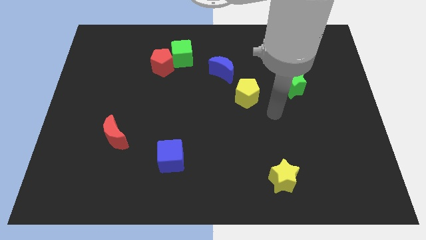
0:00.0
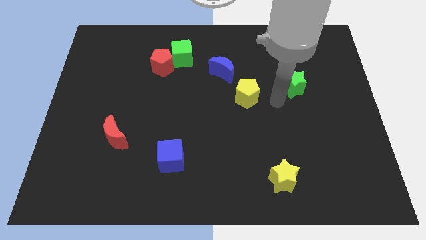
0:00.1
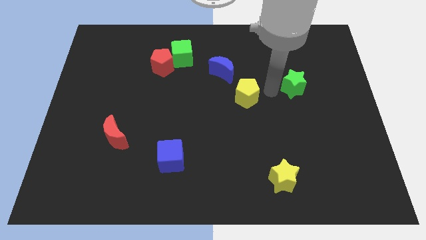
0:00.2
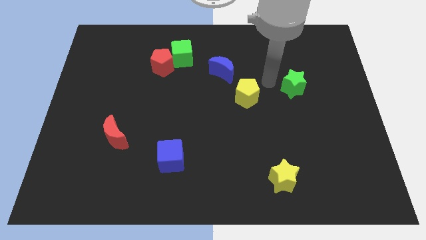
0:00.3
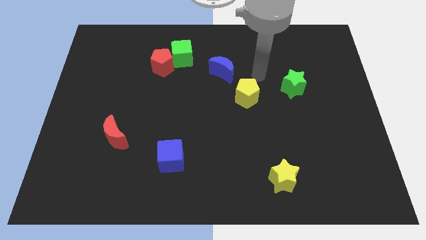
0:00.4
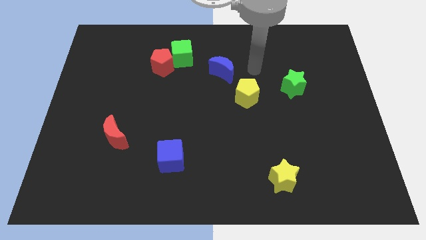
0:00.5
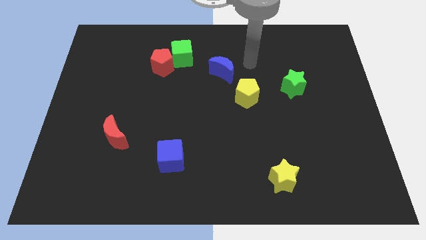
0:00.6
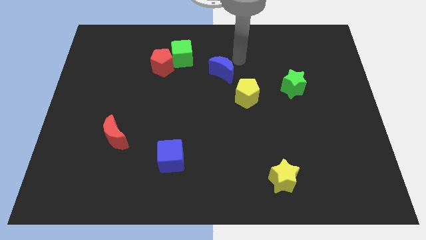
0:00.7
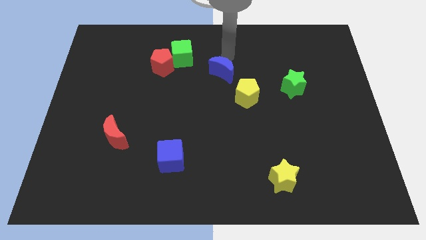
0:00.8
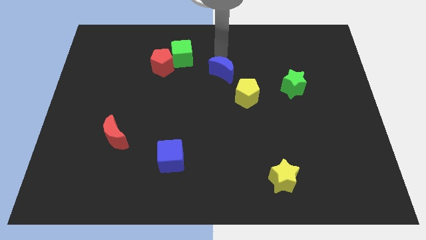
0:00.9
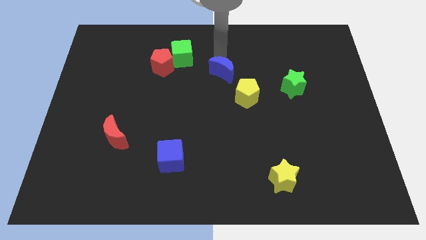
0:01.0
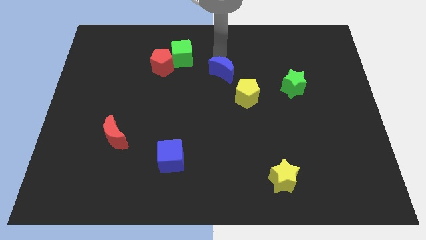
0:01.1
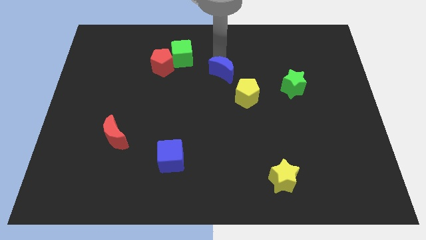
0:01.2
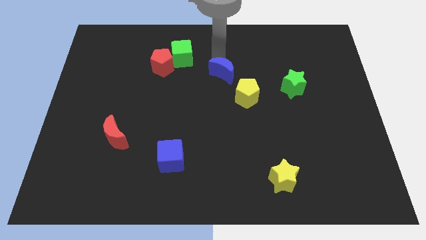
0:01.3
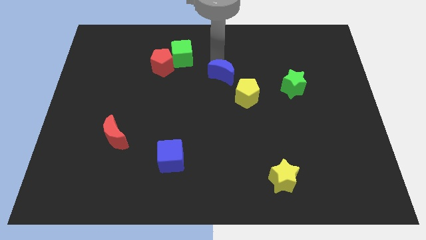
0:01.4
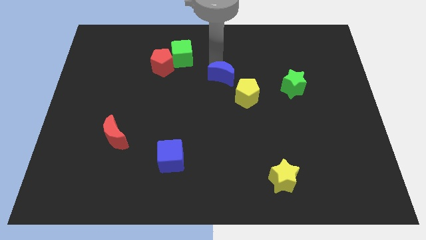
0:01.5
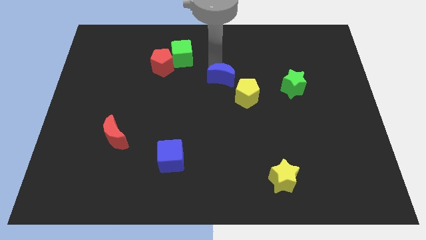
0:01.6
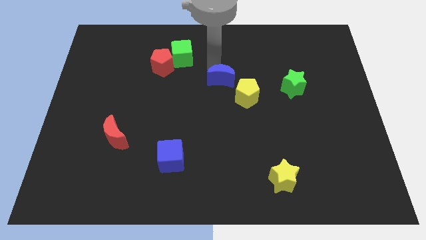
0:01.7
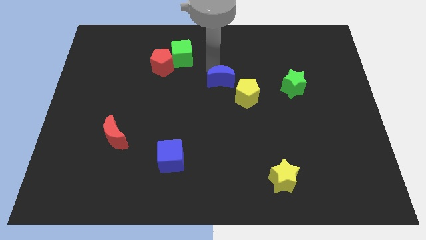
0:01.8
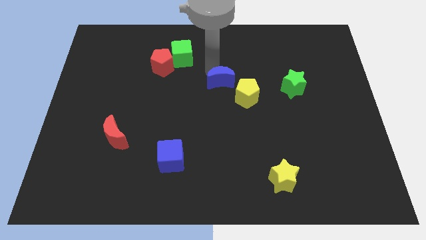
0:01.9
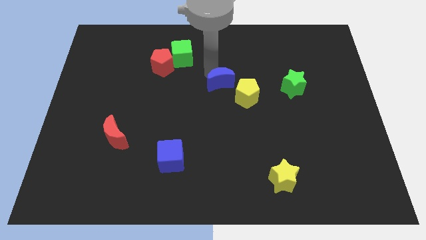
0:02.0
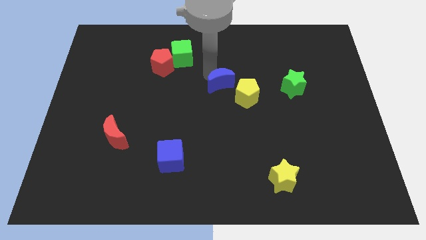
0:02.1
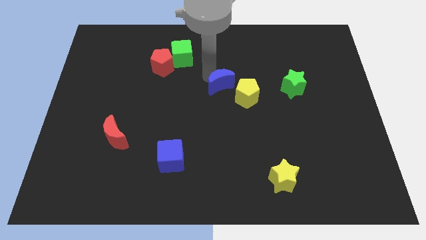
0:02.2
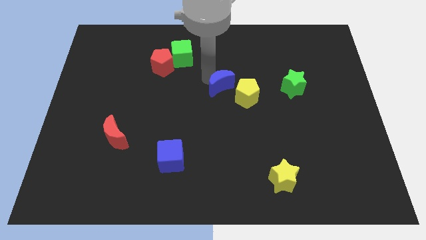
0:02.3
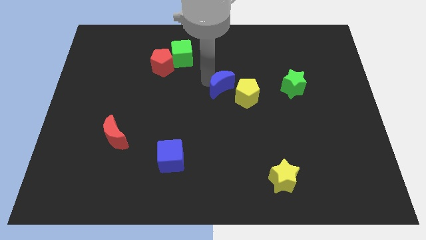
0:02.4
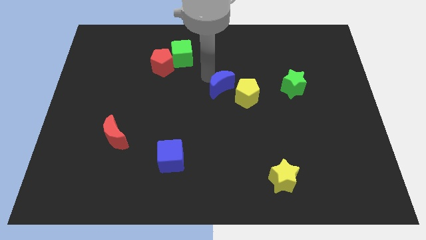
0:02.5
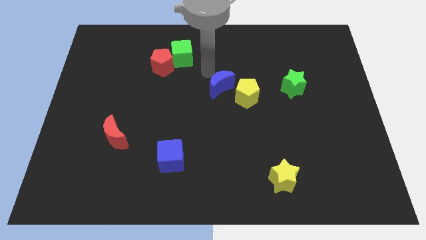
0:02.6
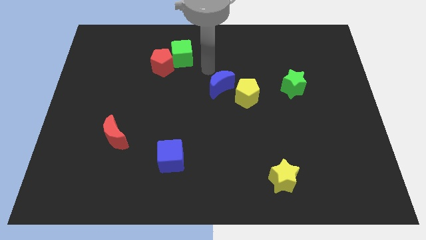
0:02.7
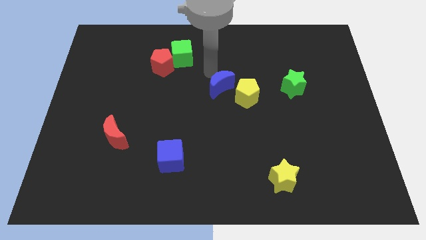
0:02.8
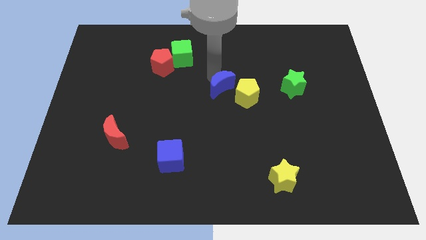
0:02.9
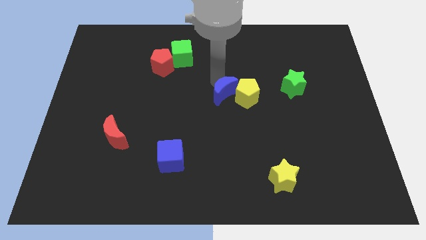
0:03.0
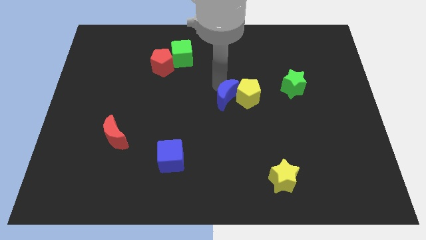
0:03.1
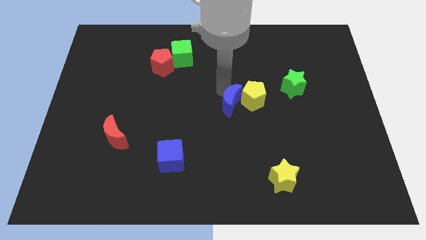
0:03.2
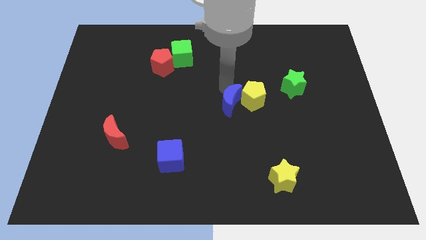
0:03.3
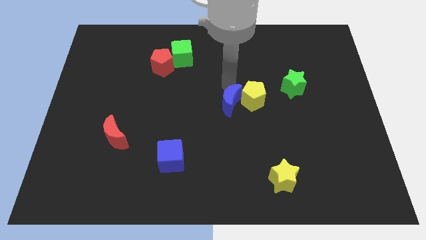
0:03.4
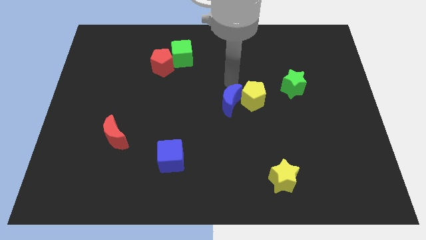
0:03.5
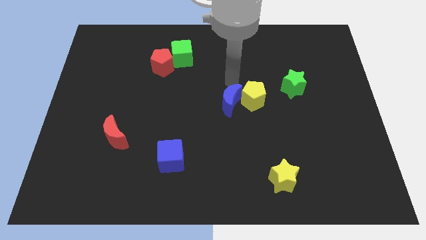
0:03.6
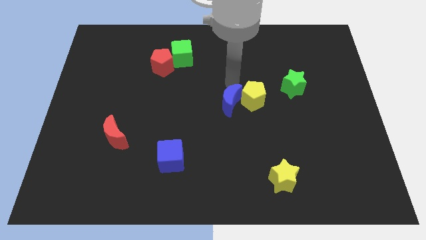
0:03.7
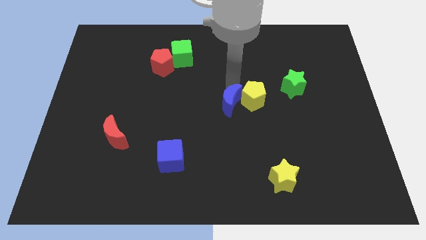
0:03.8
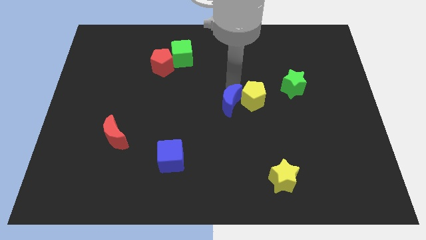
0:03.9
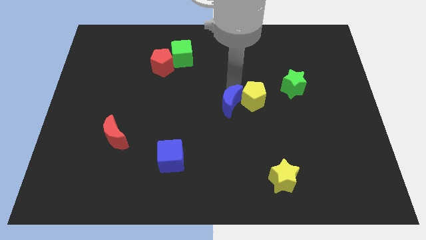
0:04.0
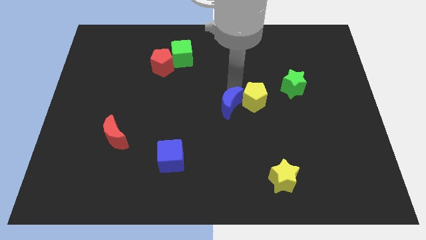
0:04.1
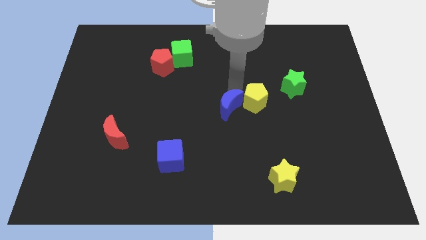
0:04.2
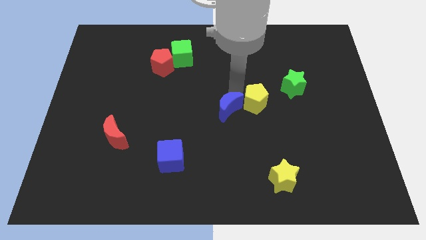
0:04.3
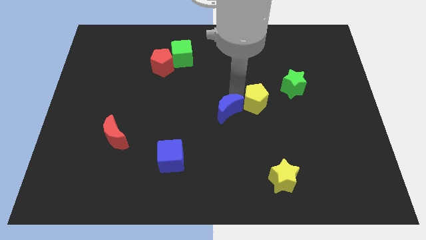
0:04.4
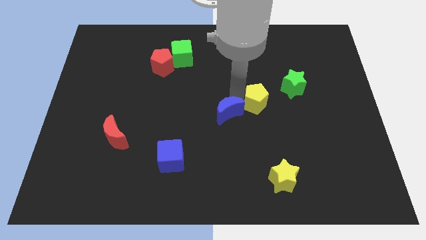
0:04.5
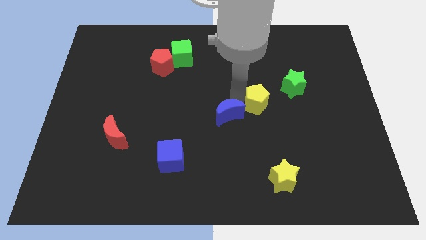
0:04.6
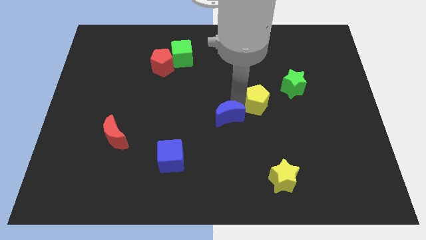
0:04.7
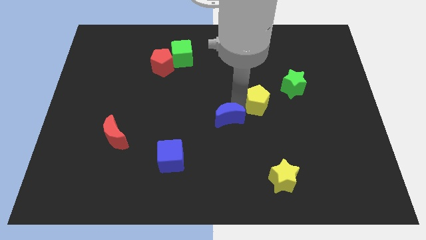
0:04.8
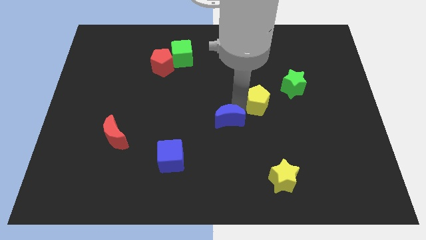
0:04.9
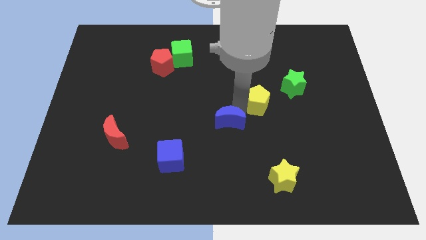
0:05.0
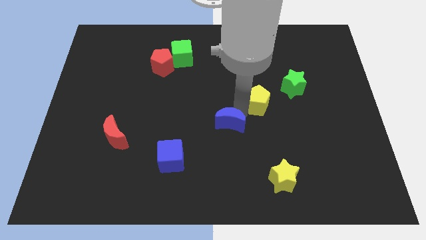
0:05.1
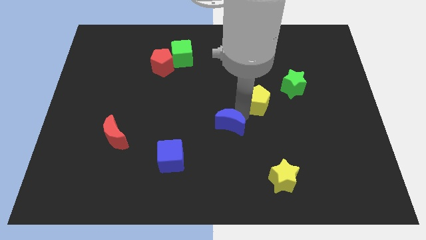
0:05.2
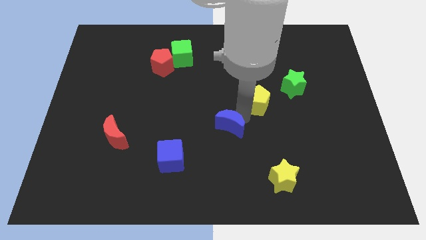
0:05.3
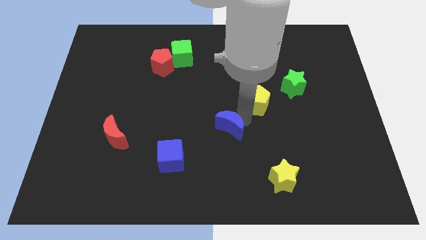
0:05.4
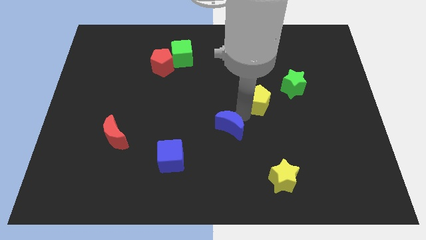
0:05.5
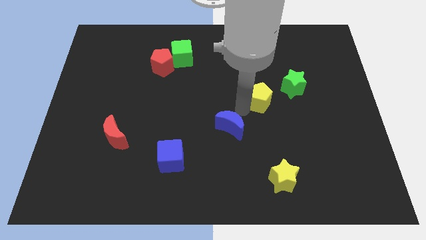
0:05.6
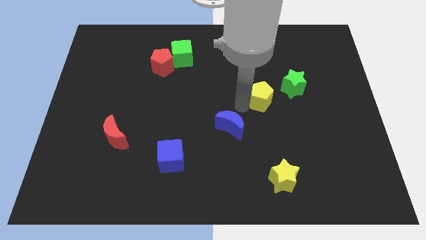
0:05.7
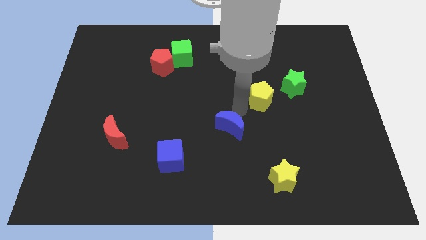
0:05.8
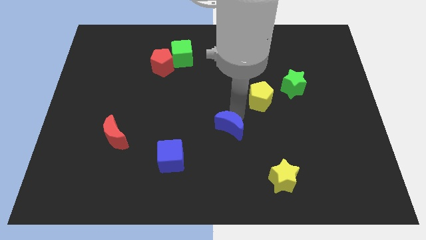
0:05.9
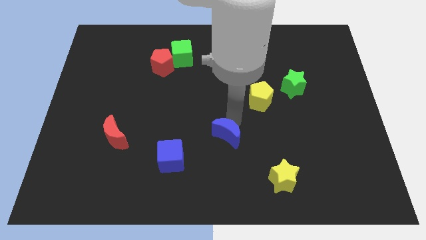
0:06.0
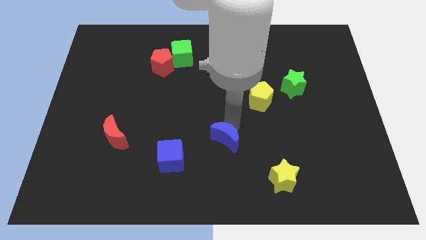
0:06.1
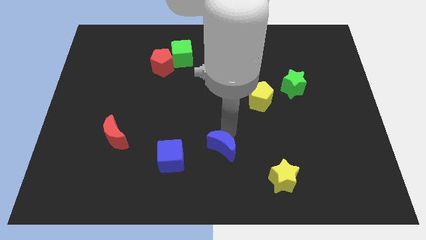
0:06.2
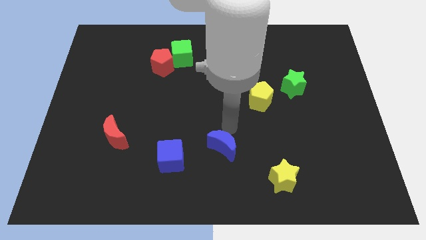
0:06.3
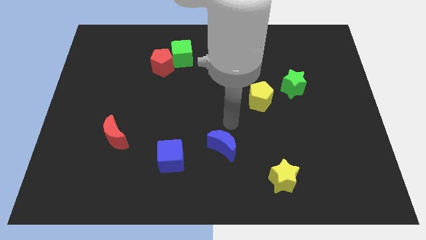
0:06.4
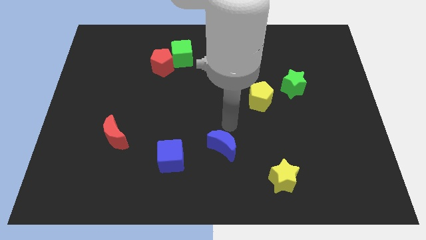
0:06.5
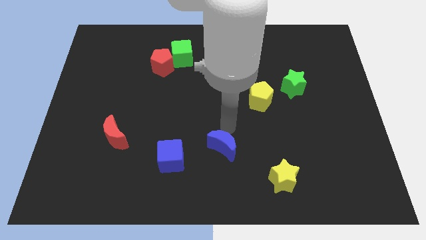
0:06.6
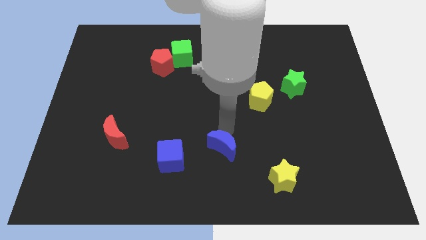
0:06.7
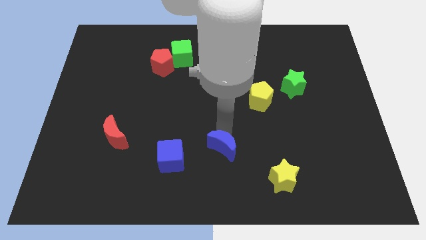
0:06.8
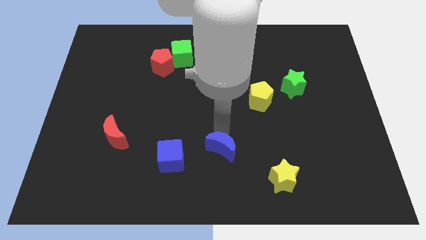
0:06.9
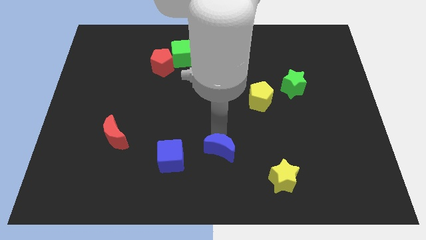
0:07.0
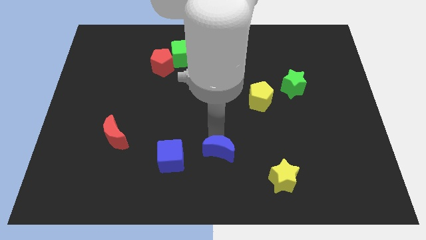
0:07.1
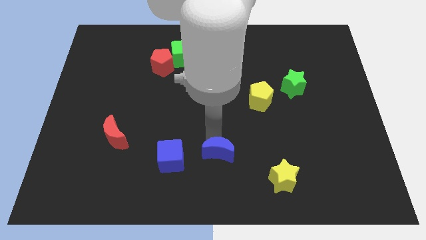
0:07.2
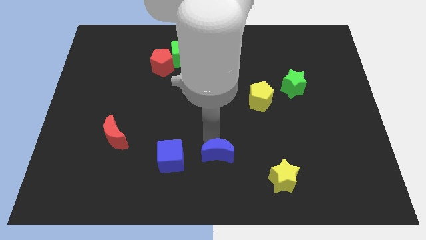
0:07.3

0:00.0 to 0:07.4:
slide the blue moon to the bottom side
